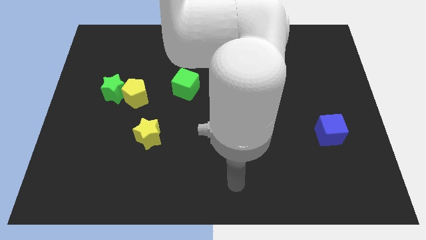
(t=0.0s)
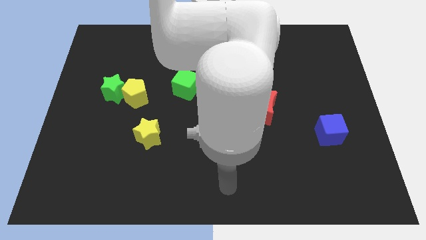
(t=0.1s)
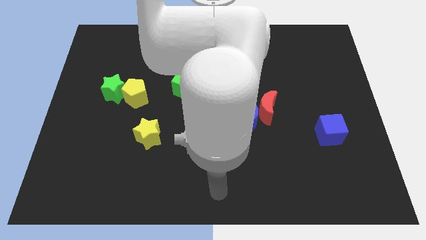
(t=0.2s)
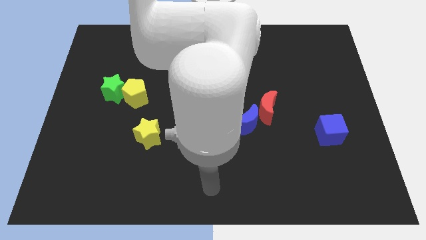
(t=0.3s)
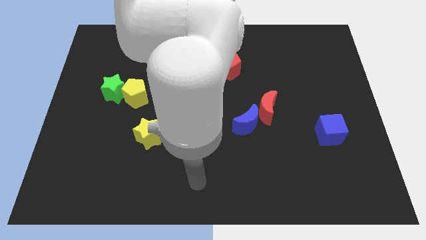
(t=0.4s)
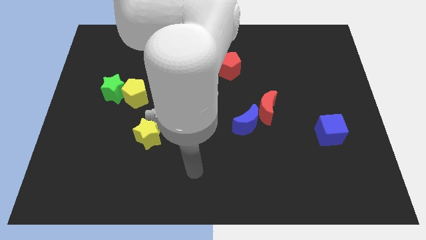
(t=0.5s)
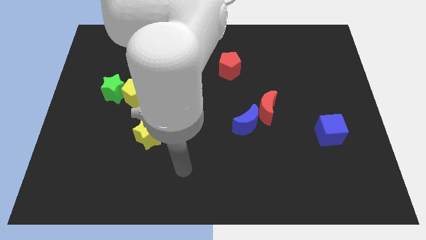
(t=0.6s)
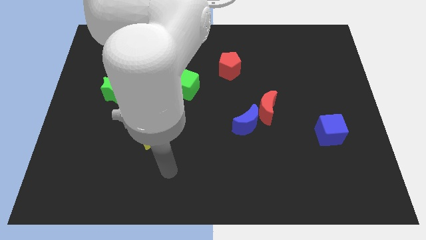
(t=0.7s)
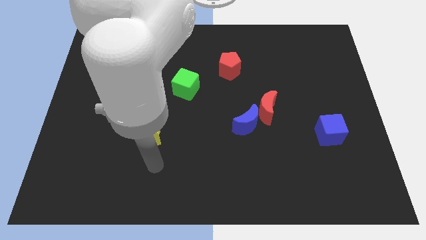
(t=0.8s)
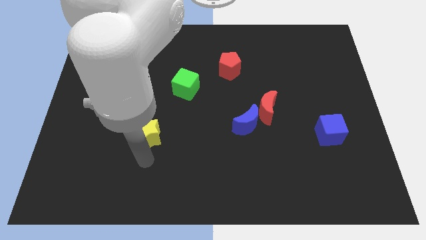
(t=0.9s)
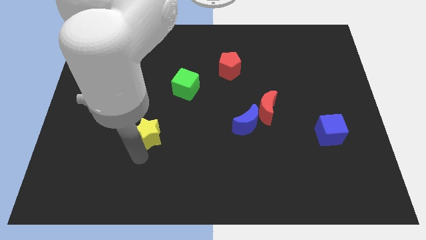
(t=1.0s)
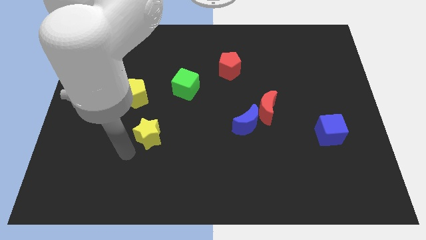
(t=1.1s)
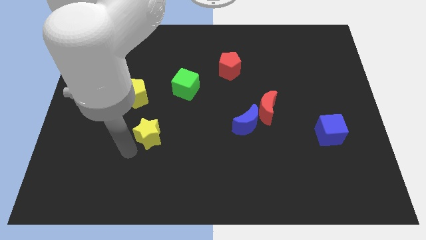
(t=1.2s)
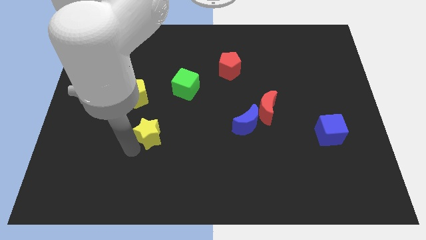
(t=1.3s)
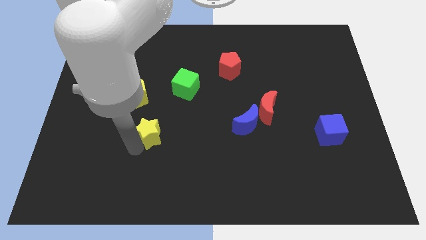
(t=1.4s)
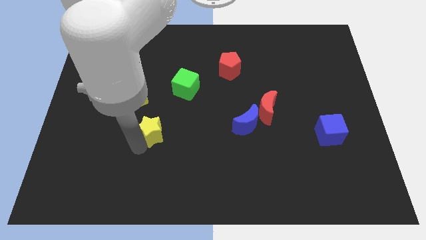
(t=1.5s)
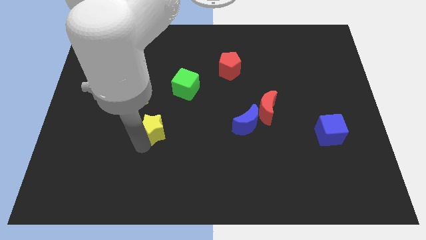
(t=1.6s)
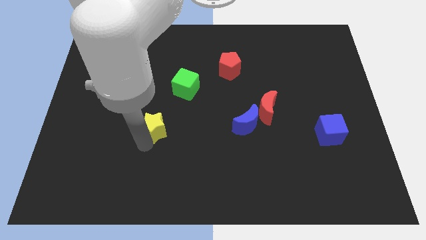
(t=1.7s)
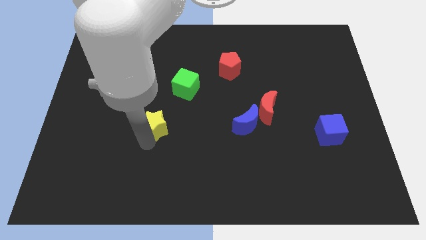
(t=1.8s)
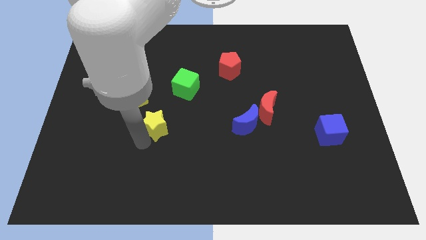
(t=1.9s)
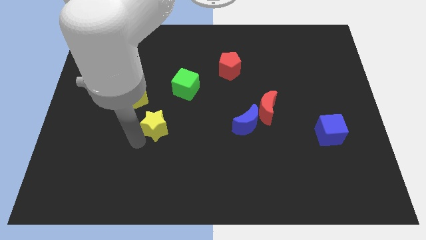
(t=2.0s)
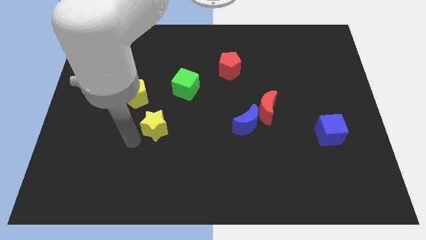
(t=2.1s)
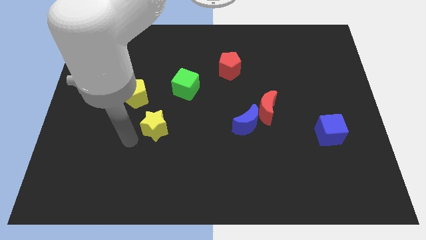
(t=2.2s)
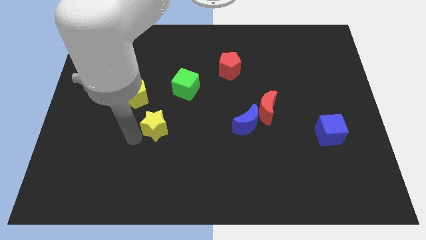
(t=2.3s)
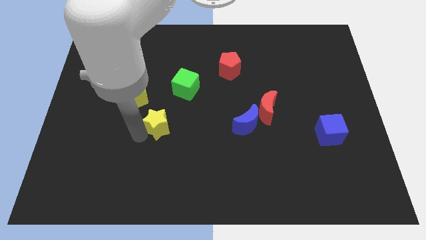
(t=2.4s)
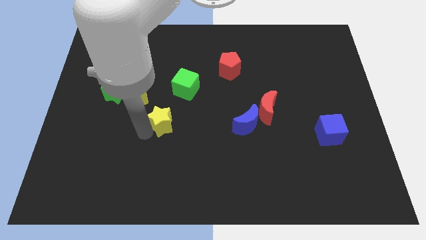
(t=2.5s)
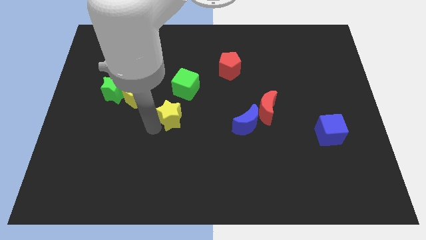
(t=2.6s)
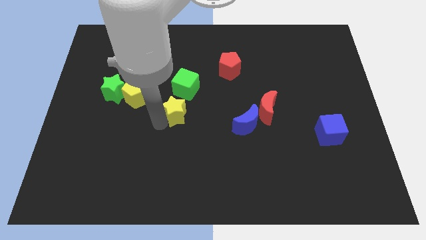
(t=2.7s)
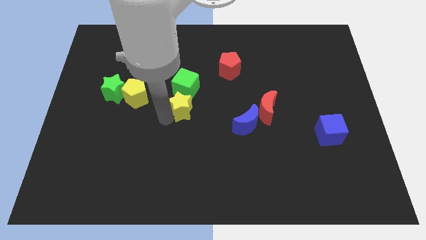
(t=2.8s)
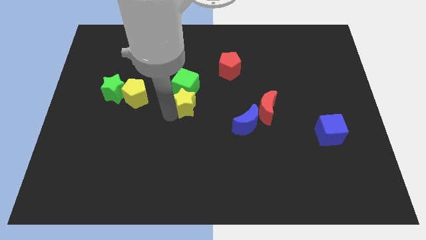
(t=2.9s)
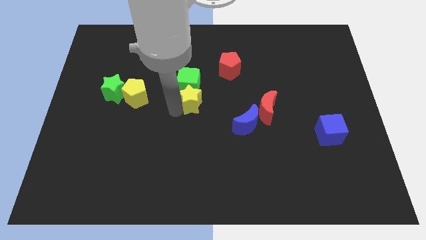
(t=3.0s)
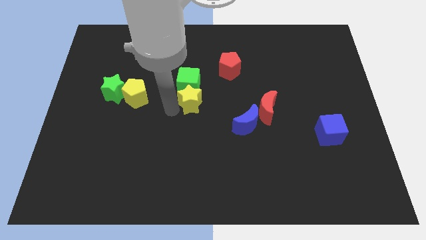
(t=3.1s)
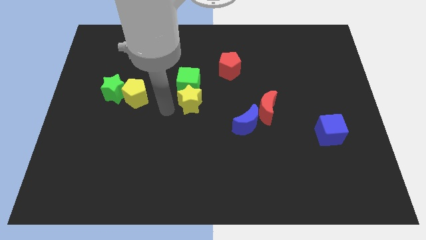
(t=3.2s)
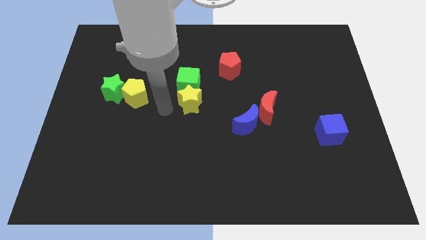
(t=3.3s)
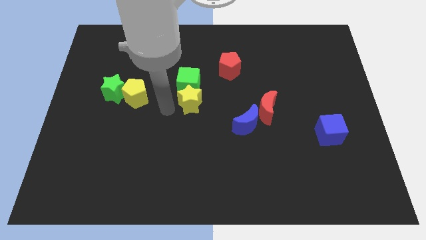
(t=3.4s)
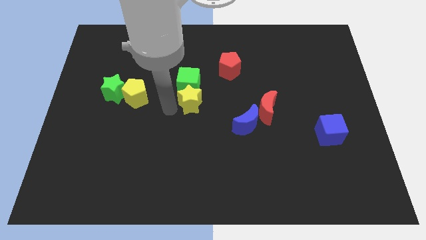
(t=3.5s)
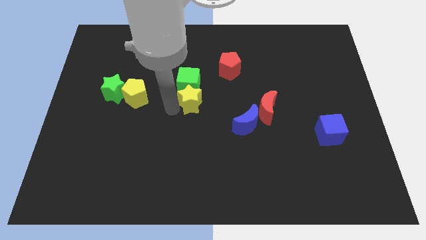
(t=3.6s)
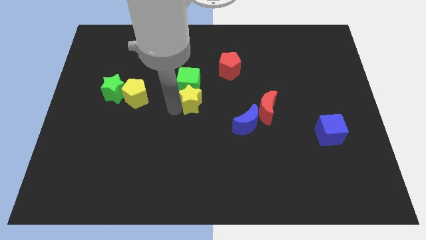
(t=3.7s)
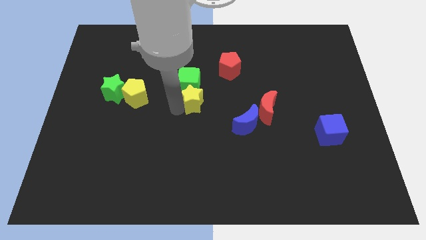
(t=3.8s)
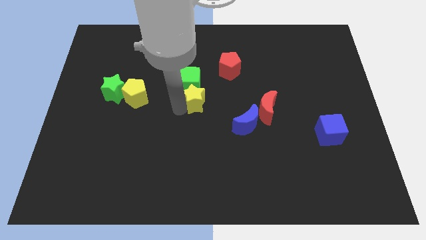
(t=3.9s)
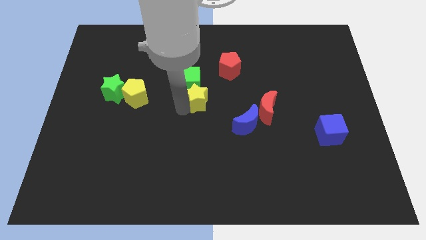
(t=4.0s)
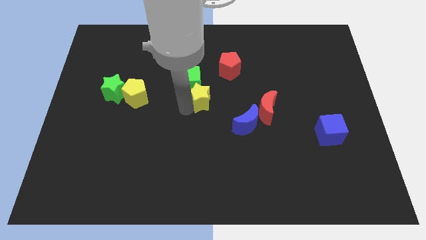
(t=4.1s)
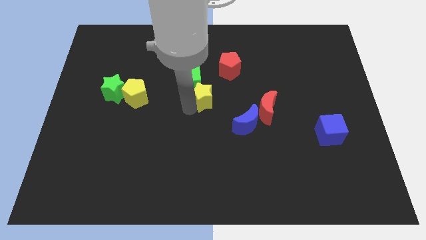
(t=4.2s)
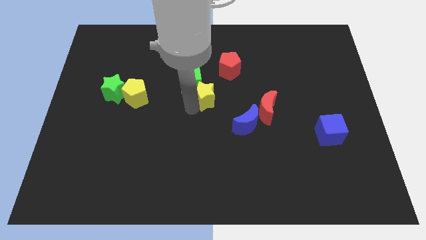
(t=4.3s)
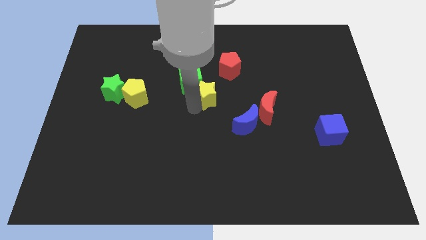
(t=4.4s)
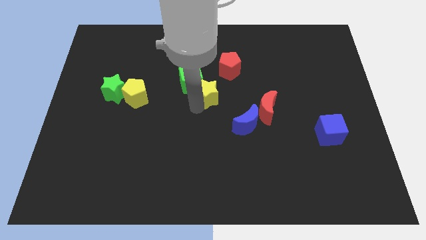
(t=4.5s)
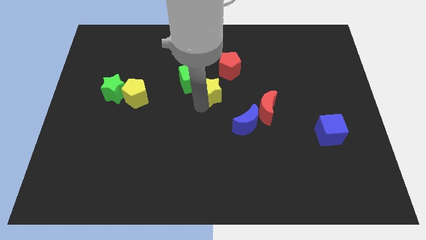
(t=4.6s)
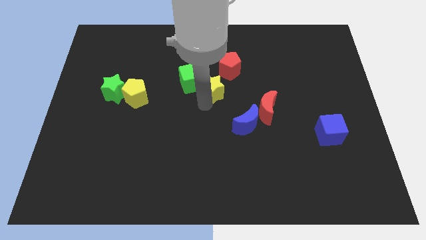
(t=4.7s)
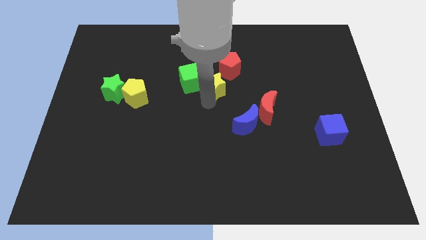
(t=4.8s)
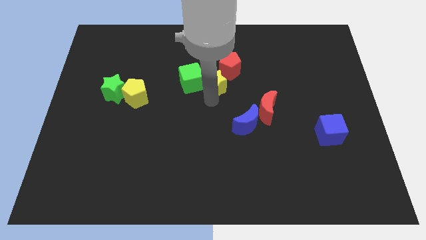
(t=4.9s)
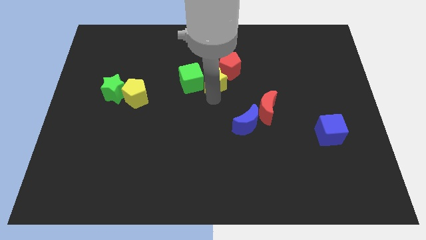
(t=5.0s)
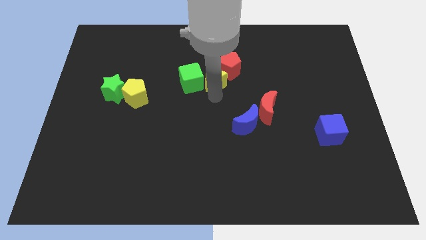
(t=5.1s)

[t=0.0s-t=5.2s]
slide the yellow star towards the red pentagon

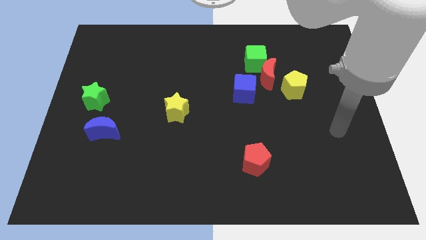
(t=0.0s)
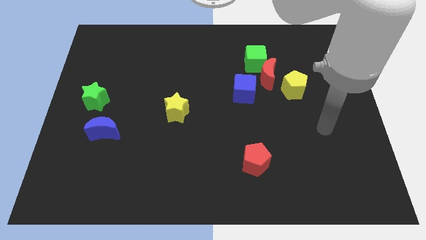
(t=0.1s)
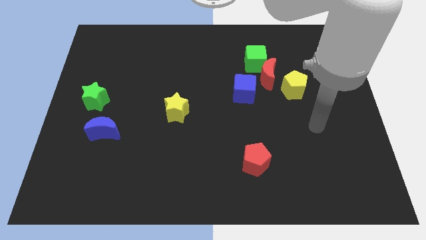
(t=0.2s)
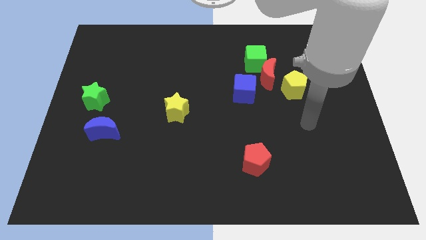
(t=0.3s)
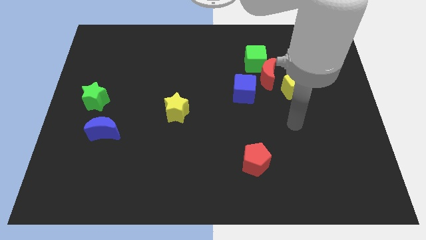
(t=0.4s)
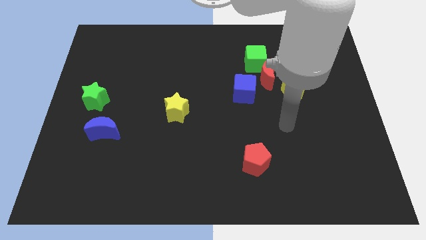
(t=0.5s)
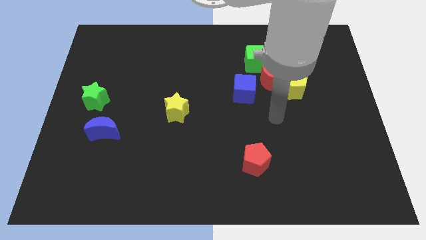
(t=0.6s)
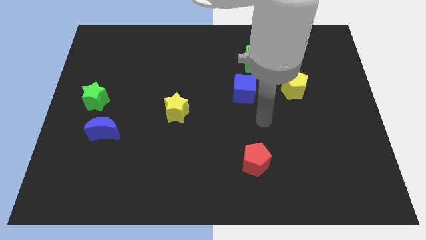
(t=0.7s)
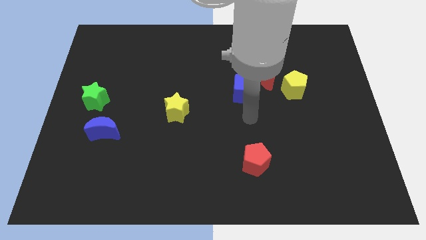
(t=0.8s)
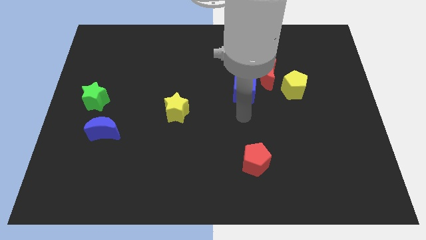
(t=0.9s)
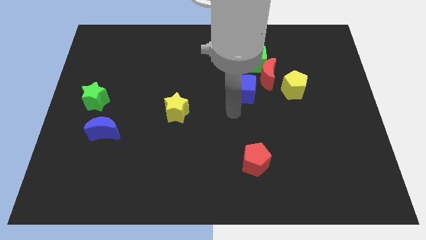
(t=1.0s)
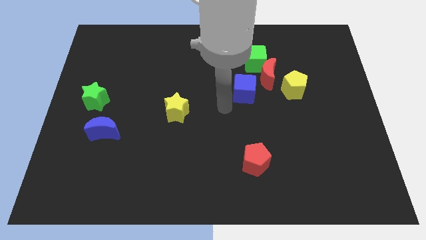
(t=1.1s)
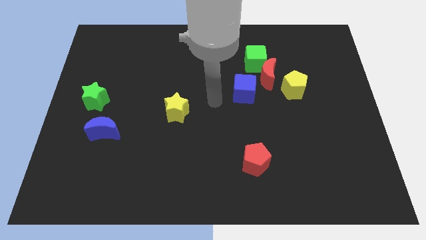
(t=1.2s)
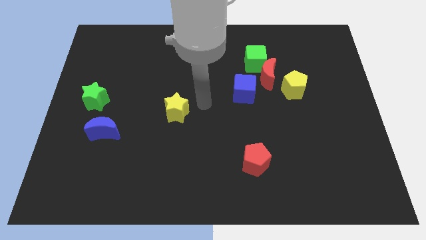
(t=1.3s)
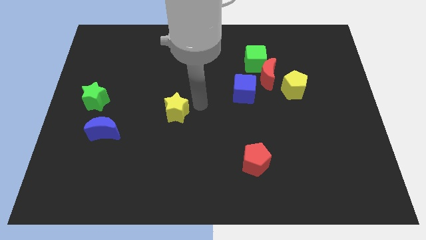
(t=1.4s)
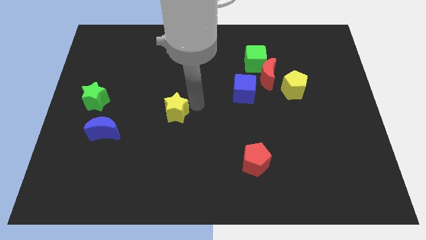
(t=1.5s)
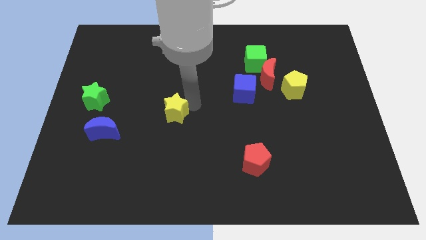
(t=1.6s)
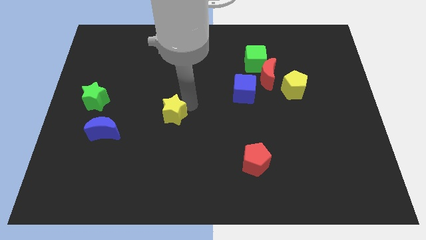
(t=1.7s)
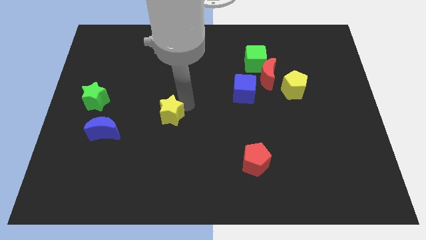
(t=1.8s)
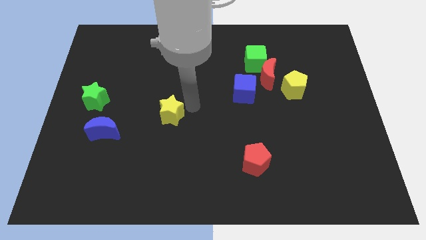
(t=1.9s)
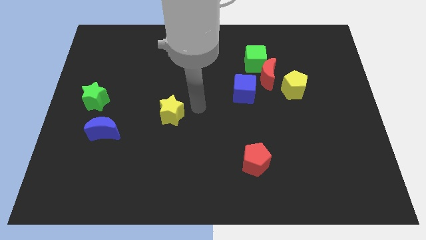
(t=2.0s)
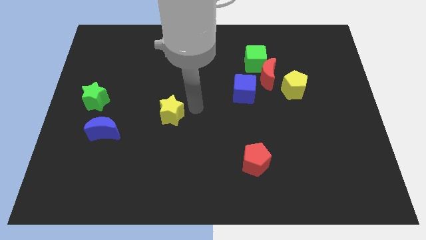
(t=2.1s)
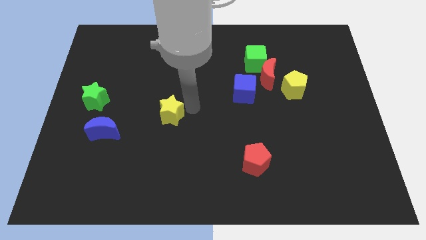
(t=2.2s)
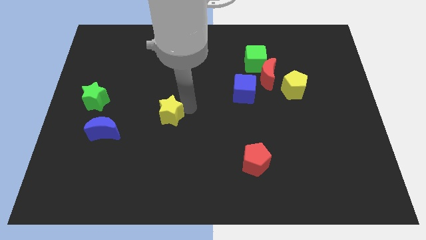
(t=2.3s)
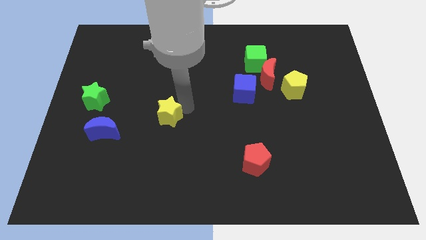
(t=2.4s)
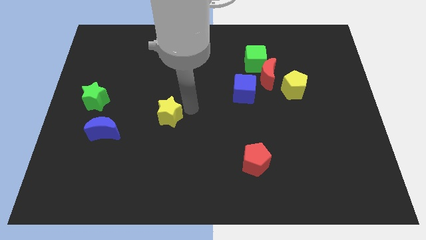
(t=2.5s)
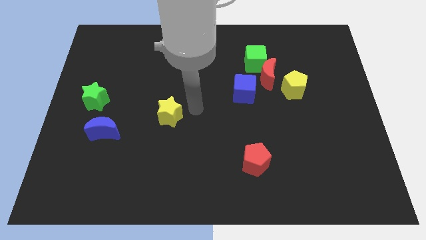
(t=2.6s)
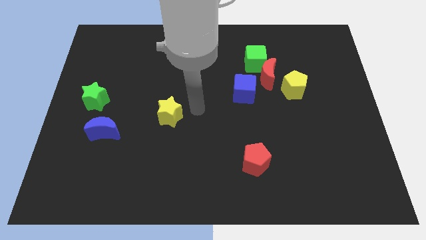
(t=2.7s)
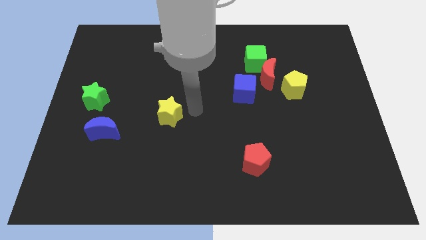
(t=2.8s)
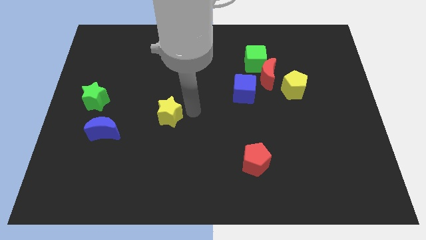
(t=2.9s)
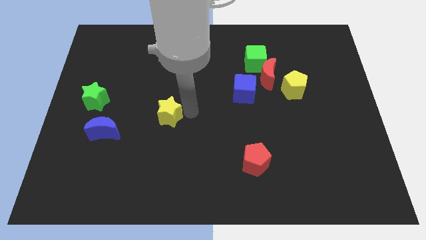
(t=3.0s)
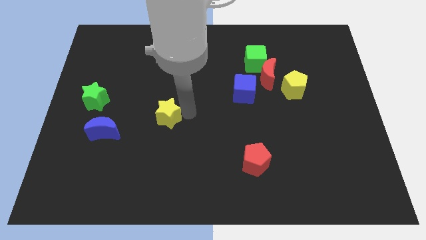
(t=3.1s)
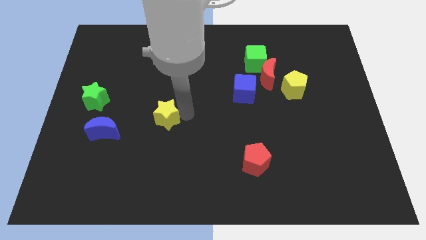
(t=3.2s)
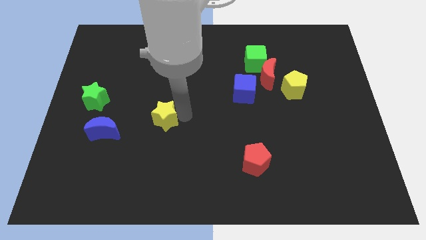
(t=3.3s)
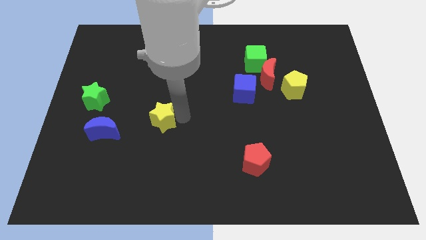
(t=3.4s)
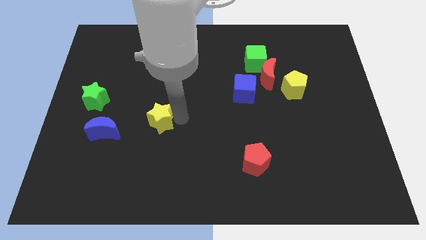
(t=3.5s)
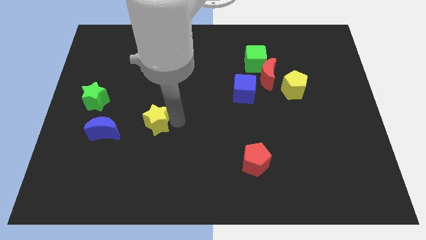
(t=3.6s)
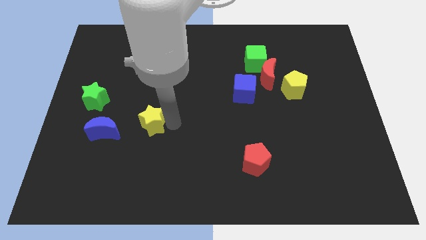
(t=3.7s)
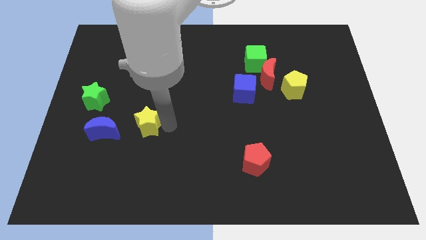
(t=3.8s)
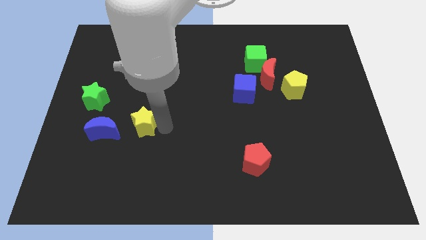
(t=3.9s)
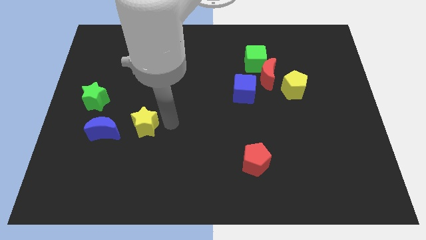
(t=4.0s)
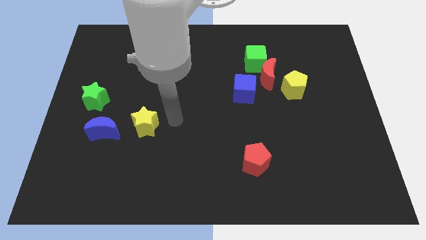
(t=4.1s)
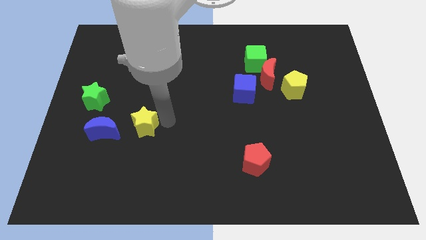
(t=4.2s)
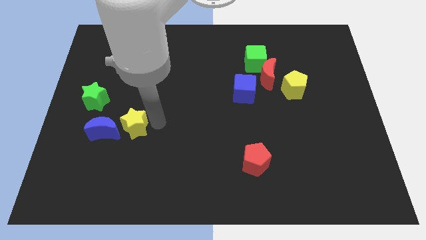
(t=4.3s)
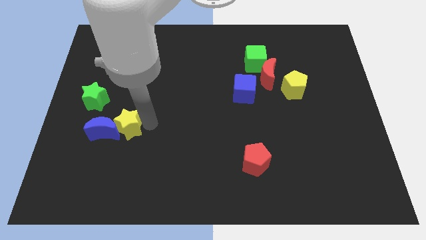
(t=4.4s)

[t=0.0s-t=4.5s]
put the yellow star next to the blue moon
